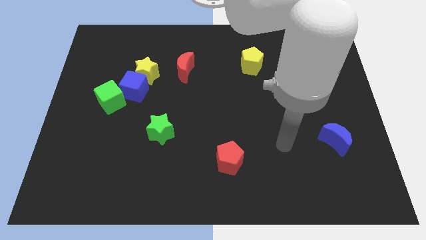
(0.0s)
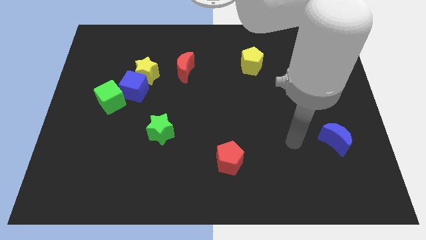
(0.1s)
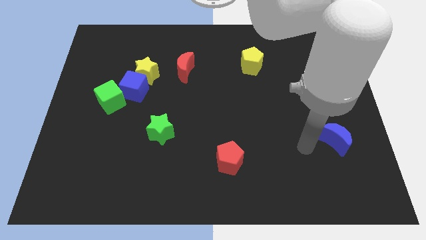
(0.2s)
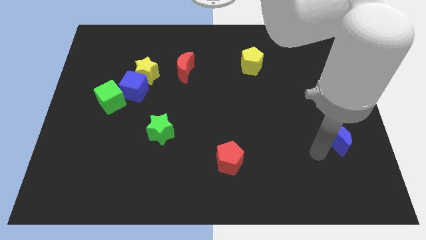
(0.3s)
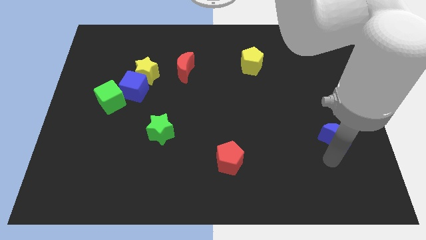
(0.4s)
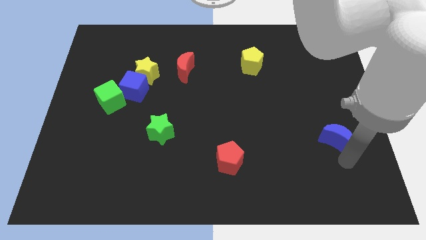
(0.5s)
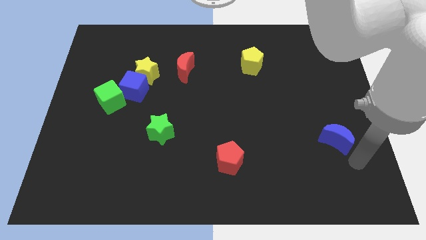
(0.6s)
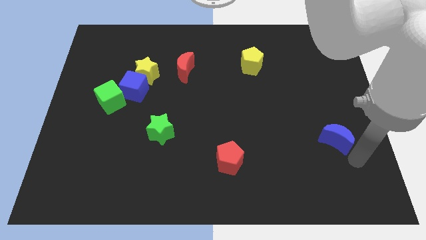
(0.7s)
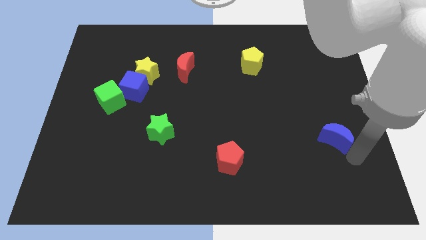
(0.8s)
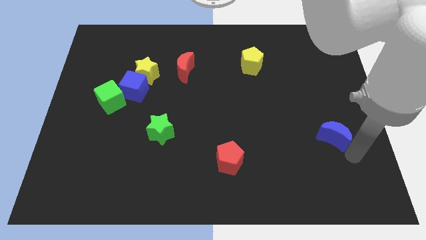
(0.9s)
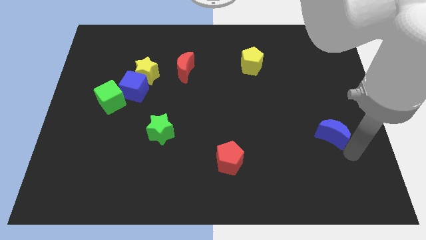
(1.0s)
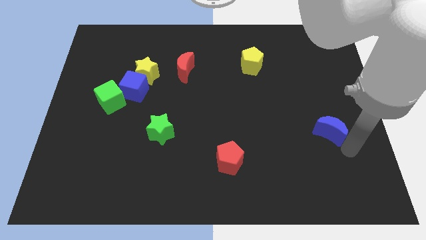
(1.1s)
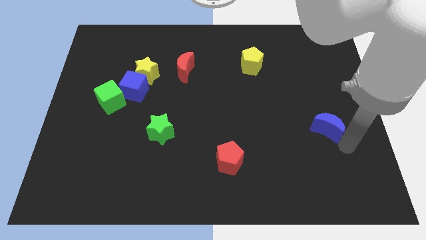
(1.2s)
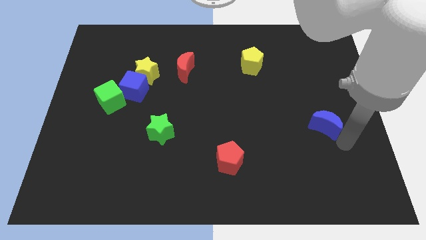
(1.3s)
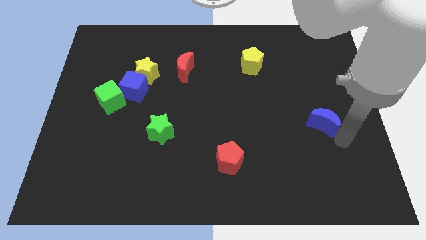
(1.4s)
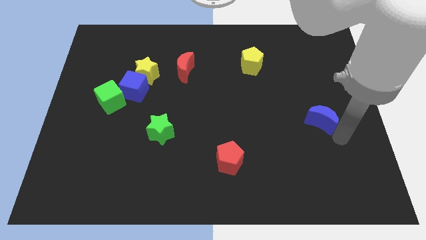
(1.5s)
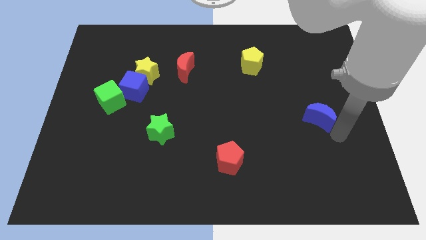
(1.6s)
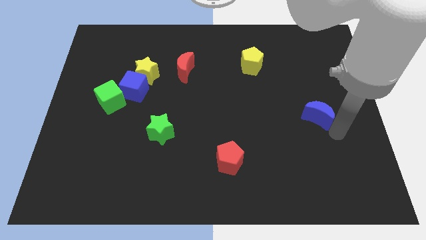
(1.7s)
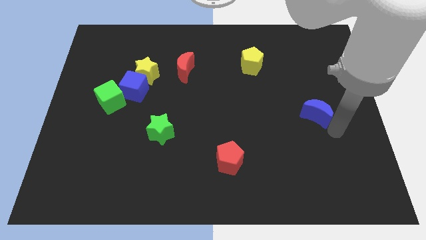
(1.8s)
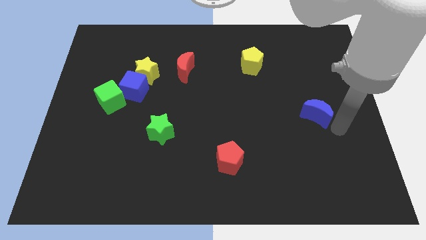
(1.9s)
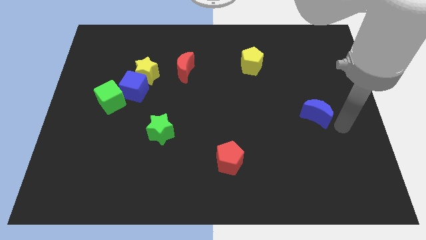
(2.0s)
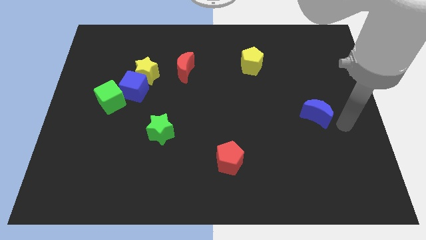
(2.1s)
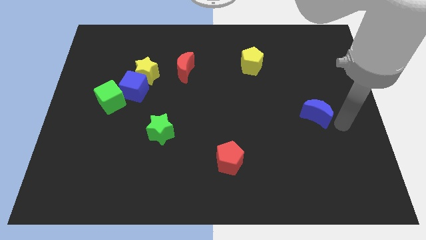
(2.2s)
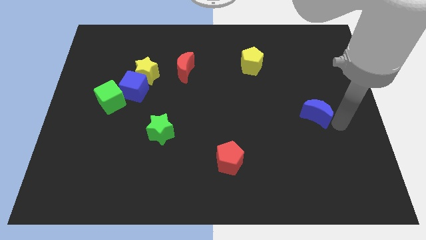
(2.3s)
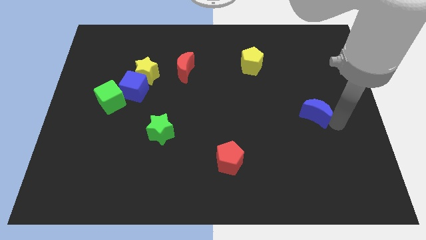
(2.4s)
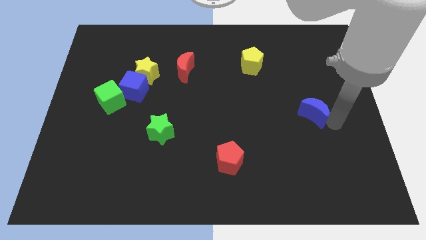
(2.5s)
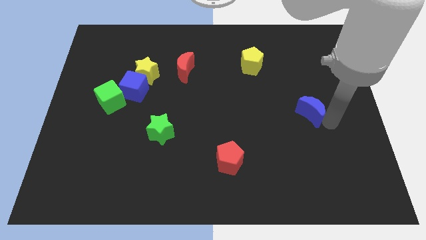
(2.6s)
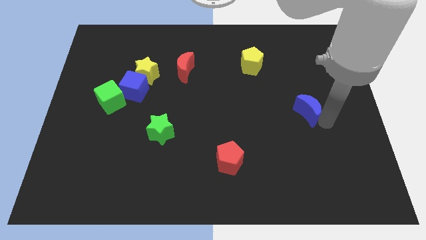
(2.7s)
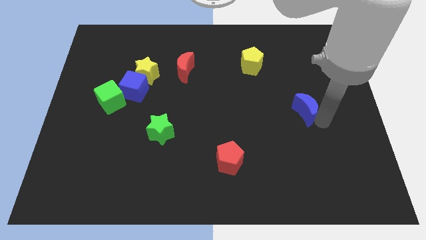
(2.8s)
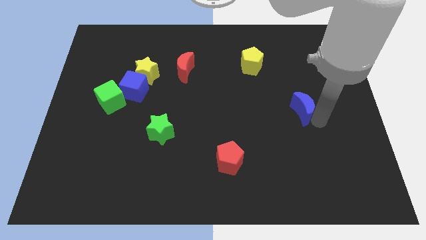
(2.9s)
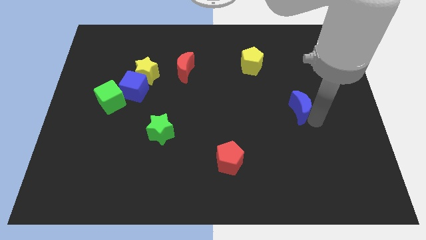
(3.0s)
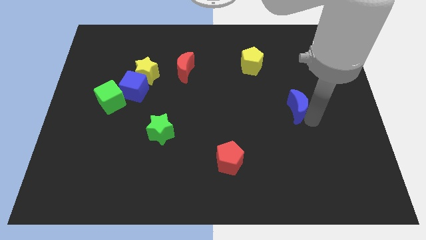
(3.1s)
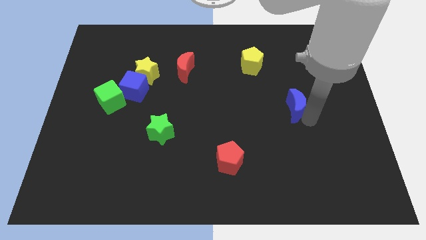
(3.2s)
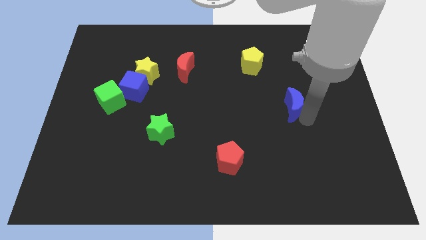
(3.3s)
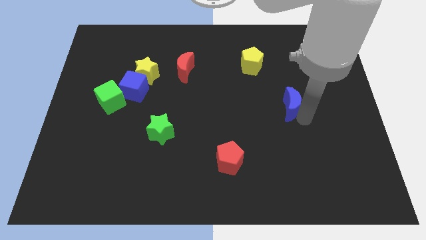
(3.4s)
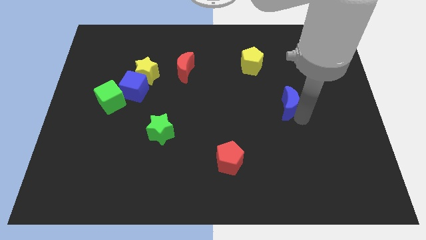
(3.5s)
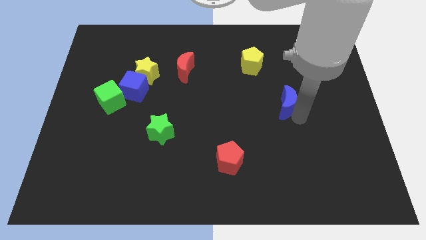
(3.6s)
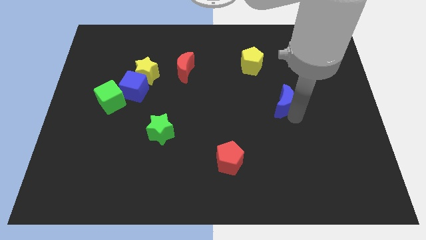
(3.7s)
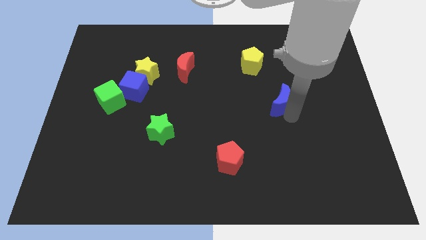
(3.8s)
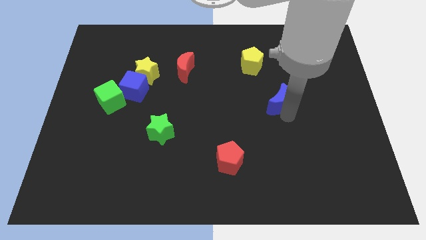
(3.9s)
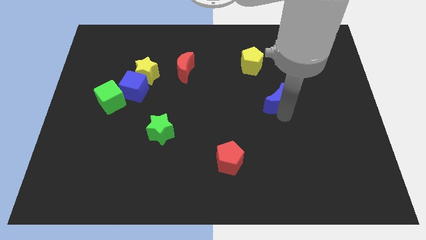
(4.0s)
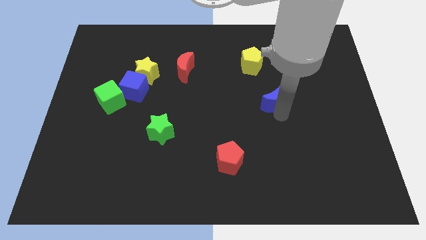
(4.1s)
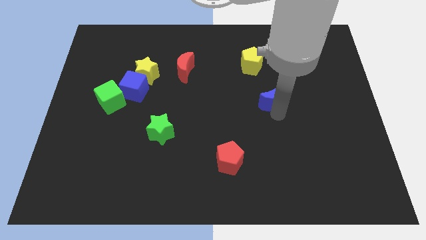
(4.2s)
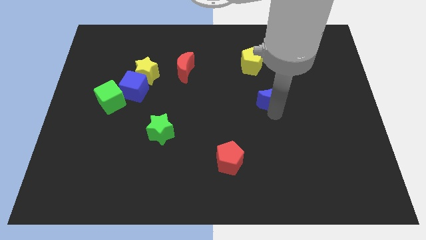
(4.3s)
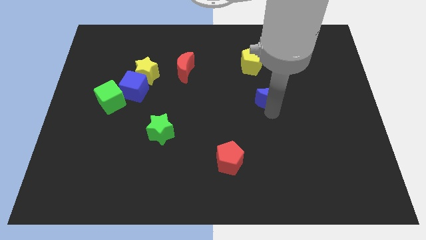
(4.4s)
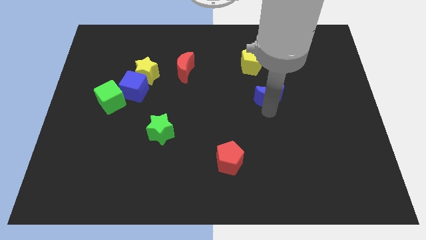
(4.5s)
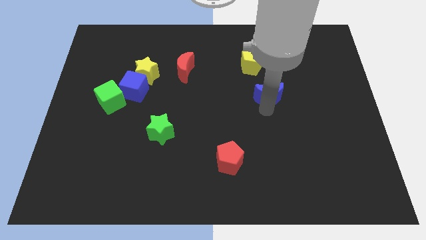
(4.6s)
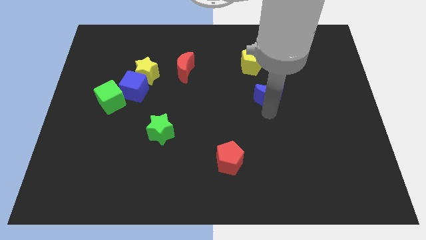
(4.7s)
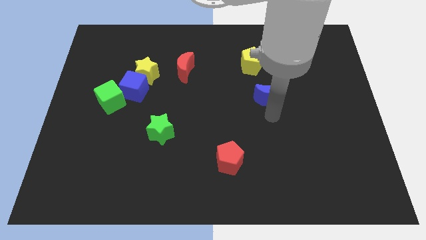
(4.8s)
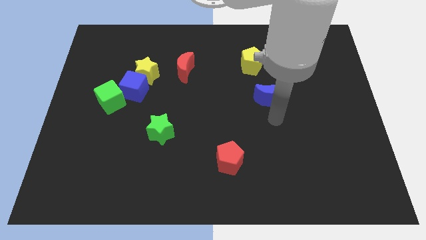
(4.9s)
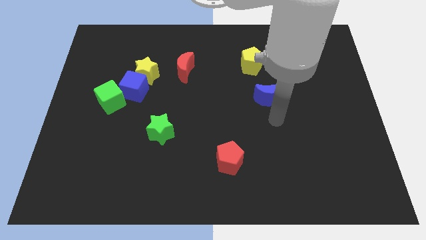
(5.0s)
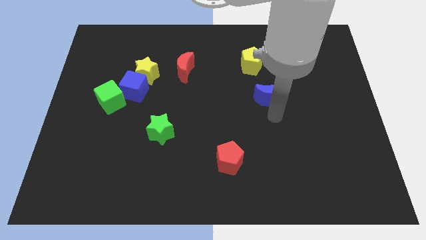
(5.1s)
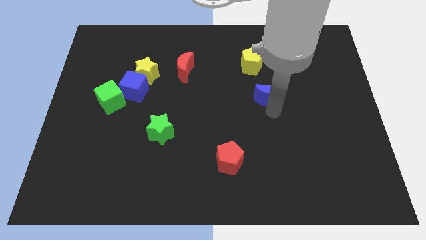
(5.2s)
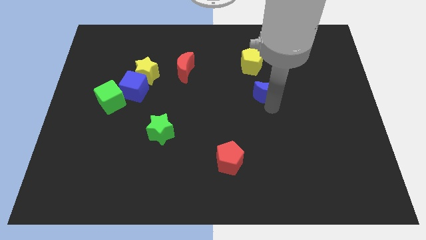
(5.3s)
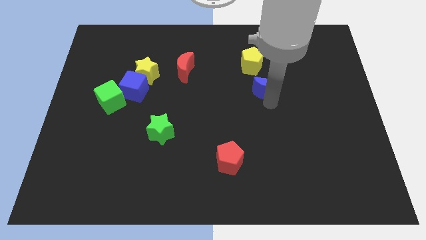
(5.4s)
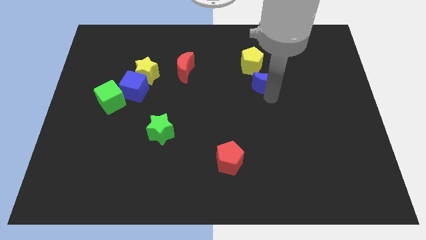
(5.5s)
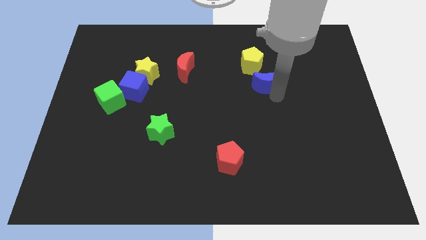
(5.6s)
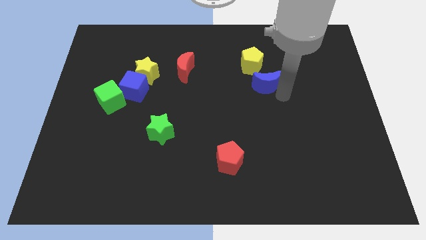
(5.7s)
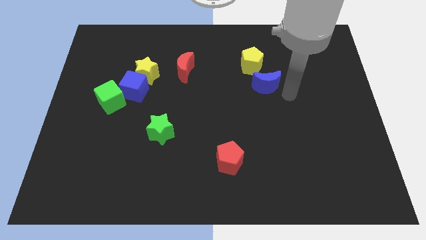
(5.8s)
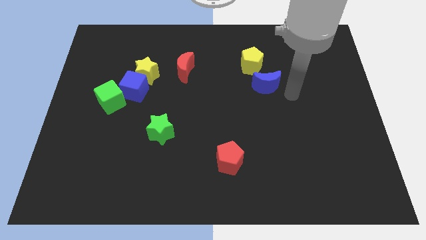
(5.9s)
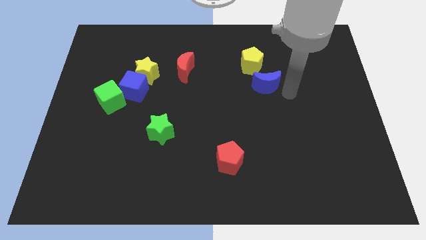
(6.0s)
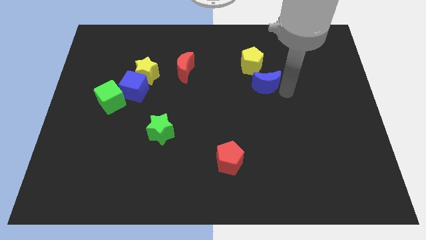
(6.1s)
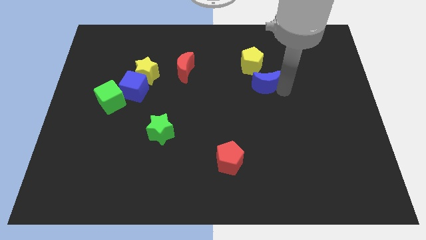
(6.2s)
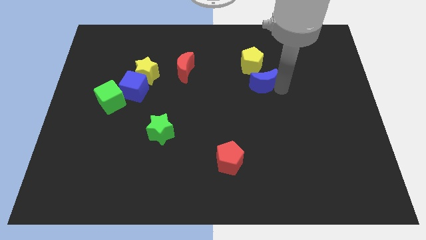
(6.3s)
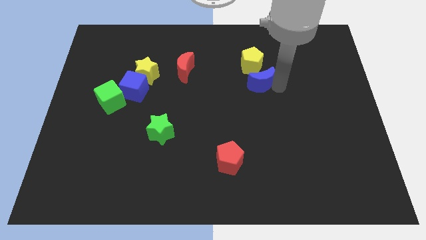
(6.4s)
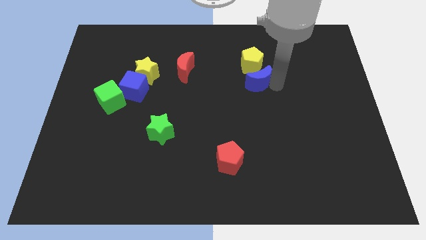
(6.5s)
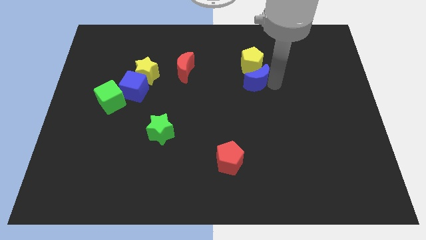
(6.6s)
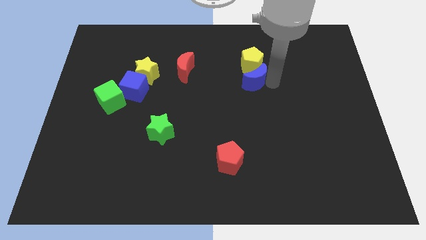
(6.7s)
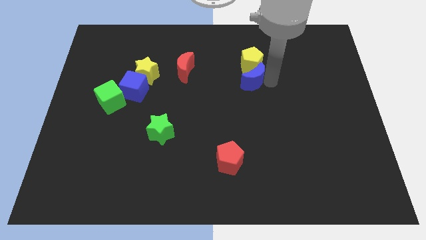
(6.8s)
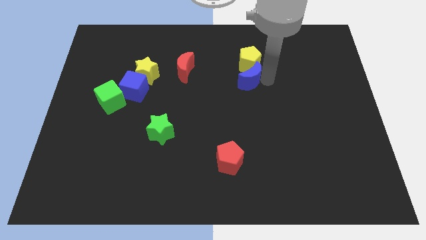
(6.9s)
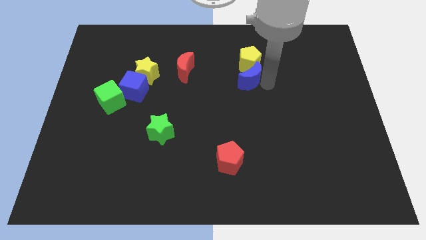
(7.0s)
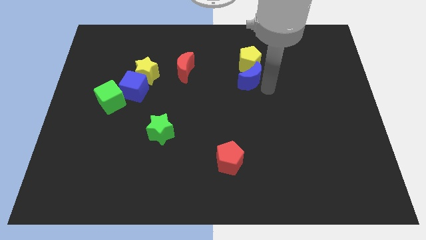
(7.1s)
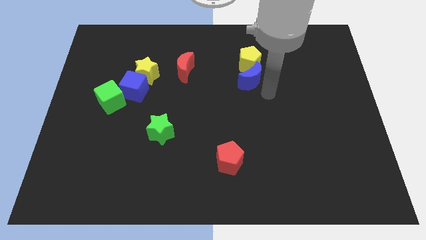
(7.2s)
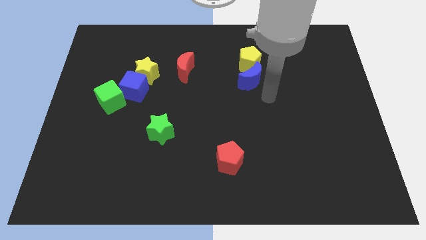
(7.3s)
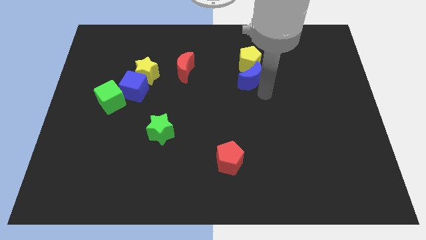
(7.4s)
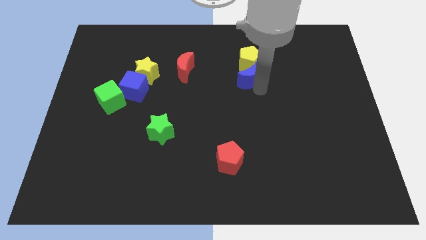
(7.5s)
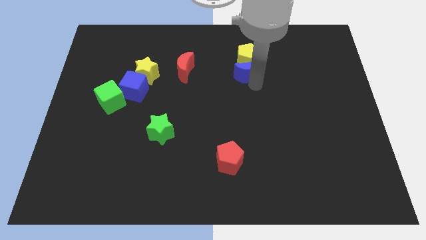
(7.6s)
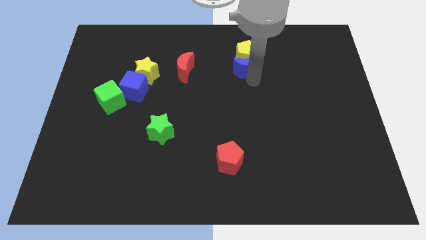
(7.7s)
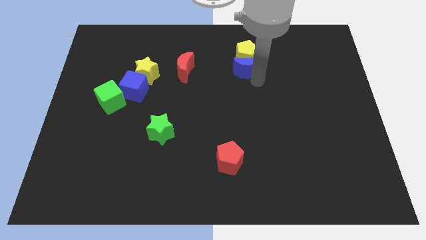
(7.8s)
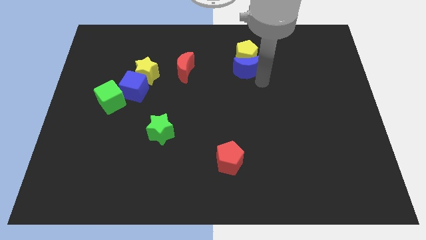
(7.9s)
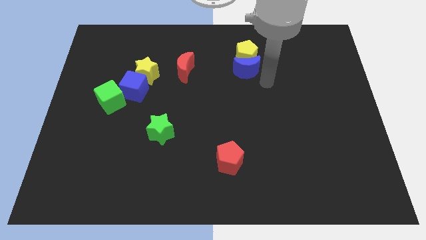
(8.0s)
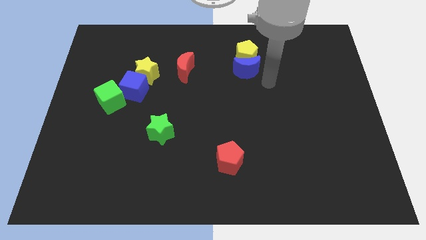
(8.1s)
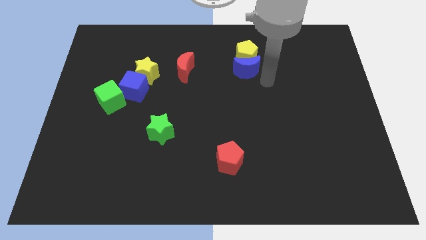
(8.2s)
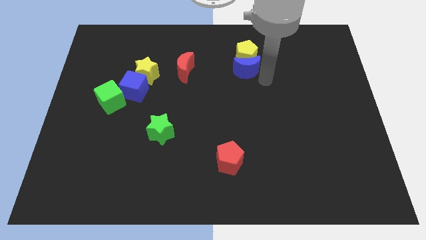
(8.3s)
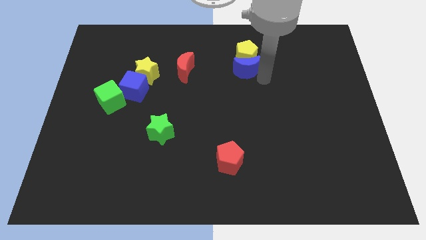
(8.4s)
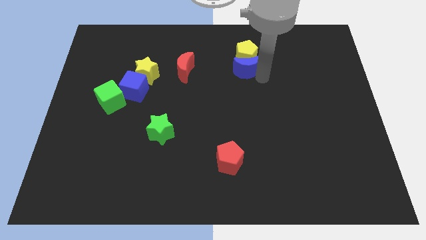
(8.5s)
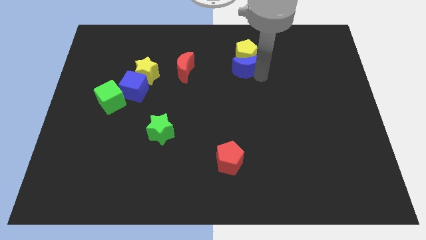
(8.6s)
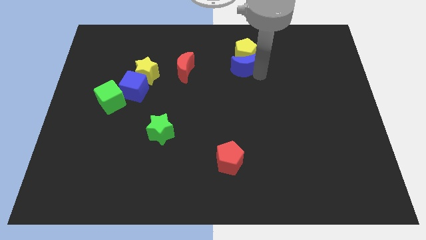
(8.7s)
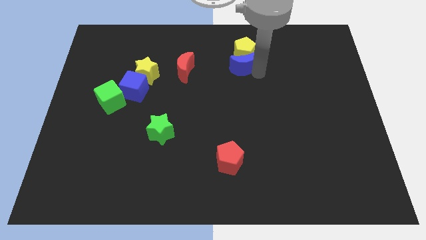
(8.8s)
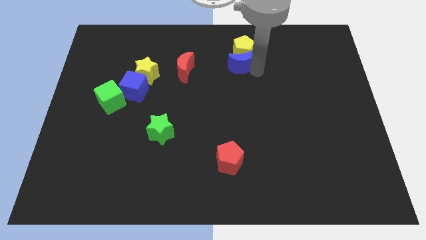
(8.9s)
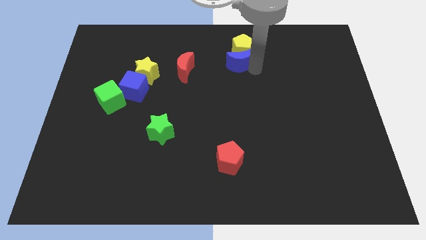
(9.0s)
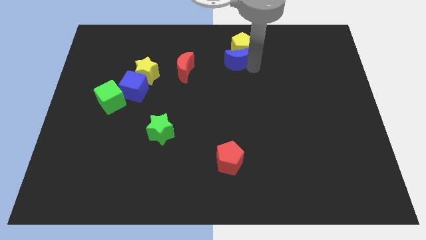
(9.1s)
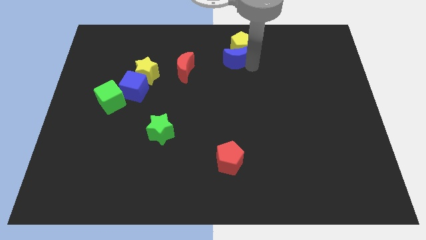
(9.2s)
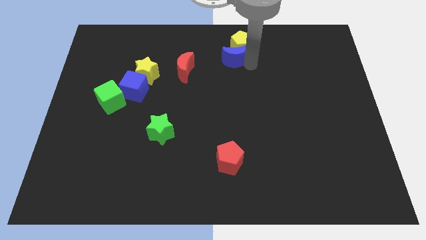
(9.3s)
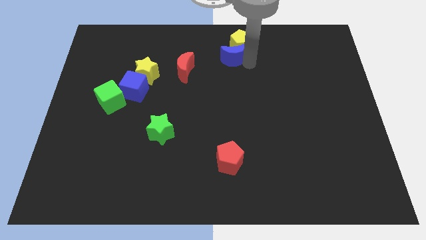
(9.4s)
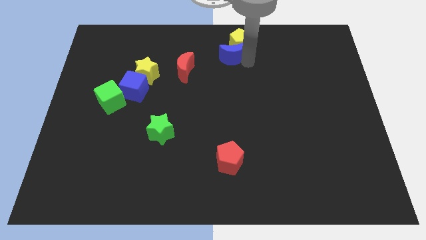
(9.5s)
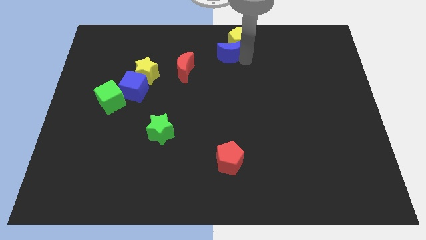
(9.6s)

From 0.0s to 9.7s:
slide the blue moon to the top side
